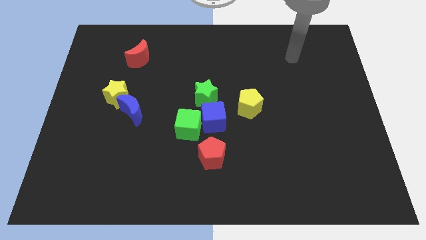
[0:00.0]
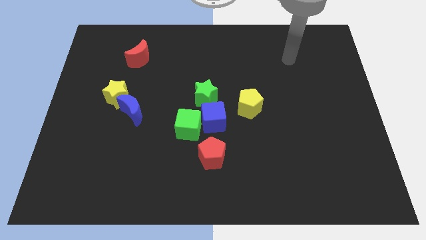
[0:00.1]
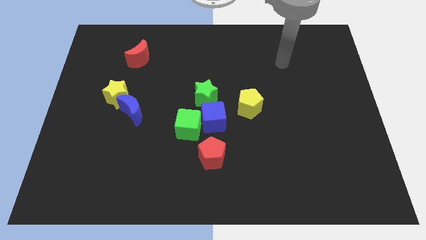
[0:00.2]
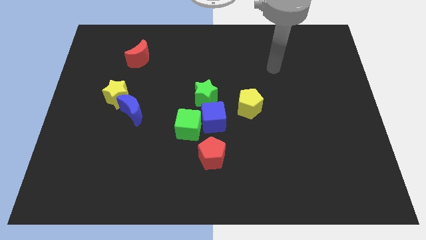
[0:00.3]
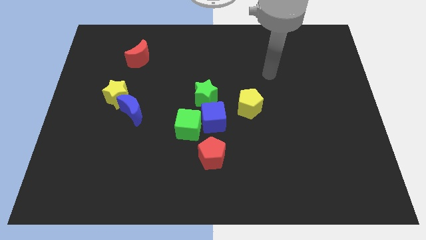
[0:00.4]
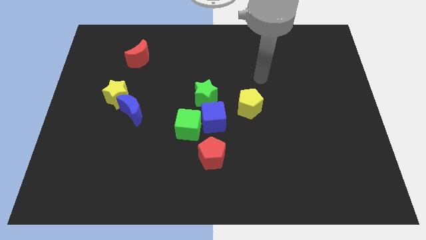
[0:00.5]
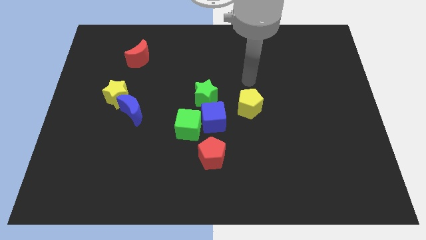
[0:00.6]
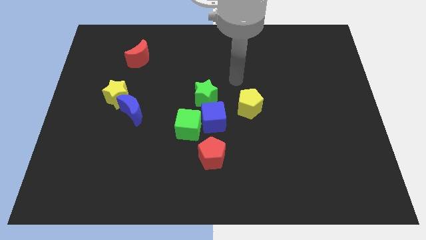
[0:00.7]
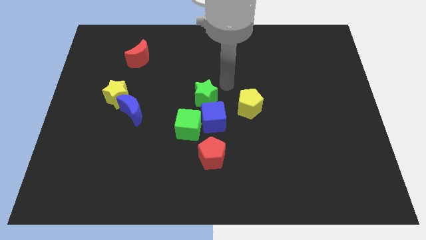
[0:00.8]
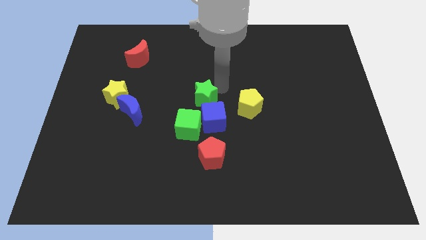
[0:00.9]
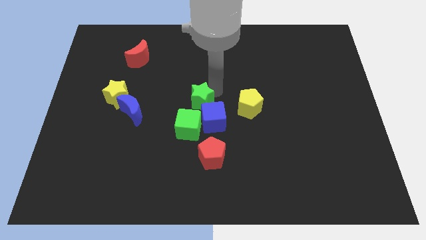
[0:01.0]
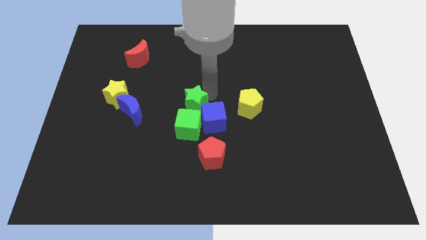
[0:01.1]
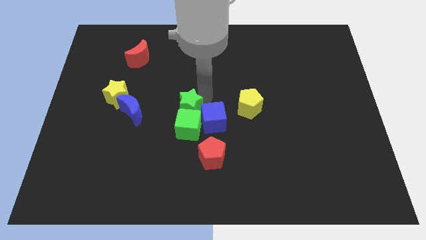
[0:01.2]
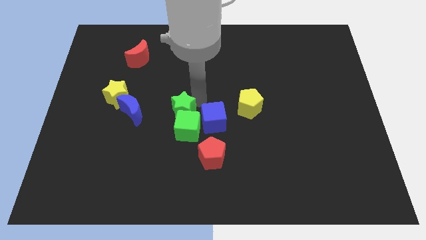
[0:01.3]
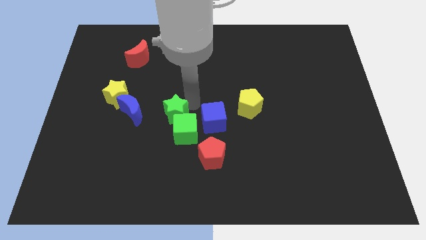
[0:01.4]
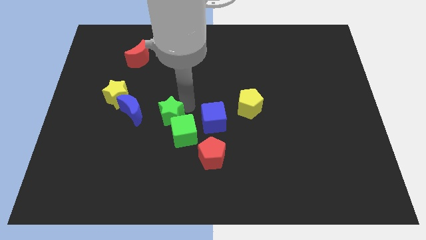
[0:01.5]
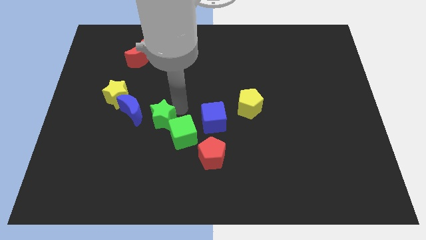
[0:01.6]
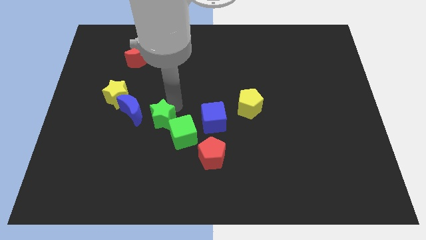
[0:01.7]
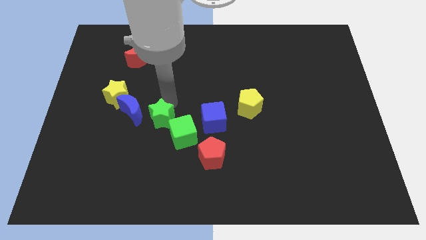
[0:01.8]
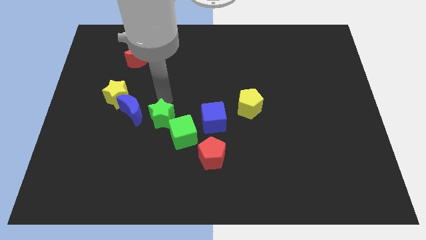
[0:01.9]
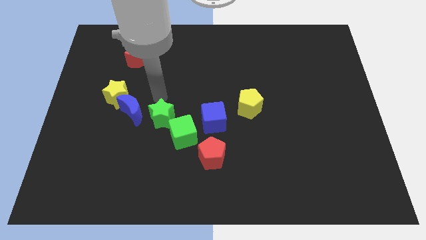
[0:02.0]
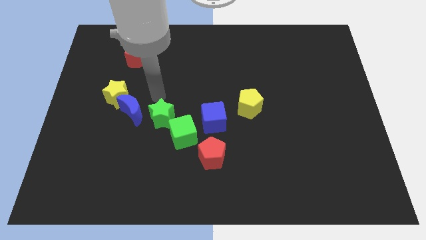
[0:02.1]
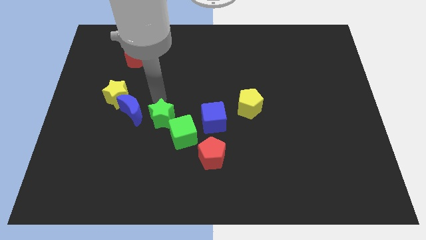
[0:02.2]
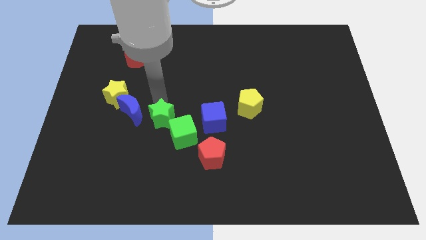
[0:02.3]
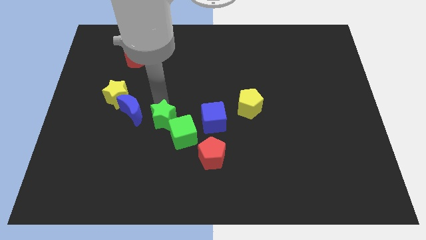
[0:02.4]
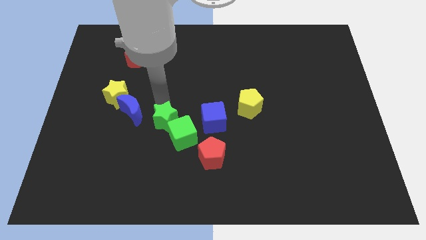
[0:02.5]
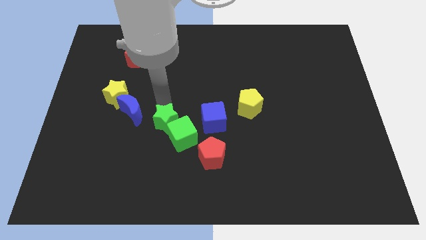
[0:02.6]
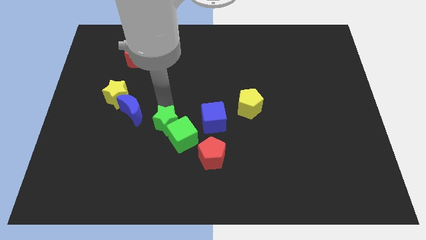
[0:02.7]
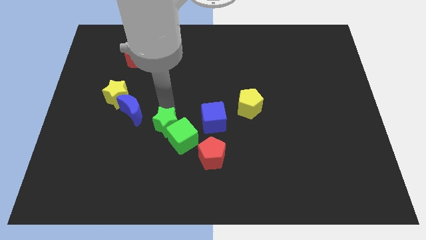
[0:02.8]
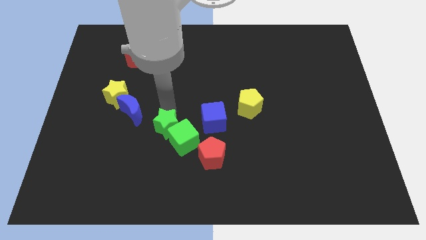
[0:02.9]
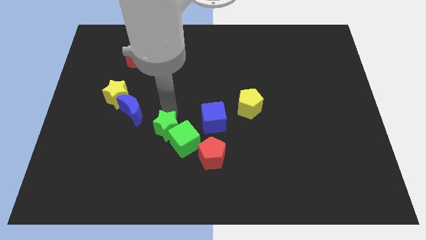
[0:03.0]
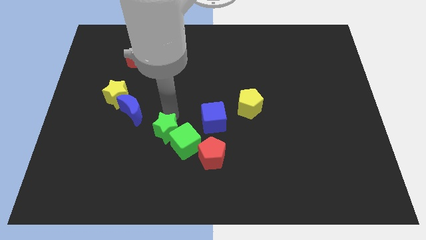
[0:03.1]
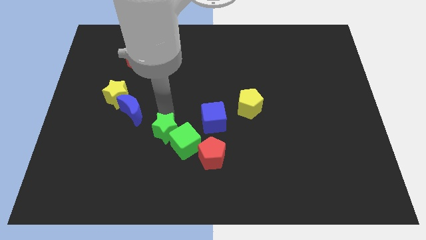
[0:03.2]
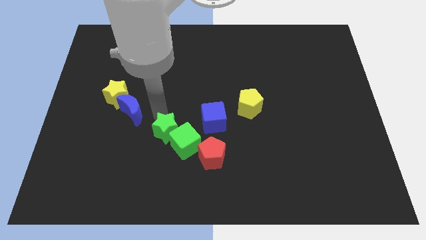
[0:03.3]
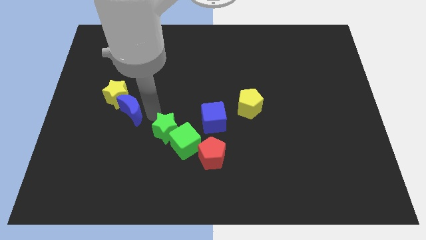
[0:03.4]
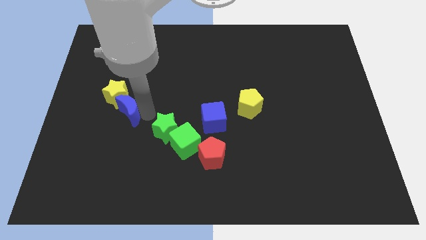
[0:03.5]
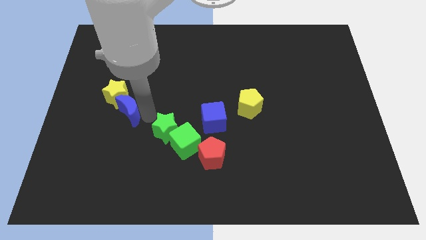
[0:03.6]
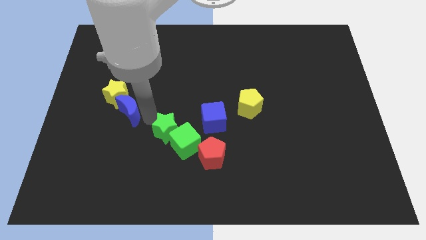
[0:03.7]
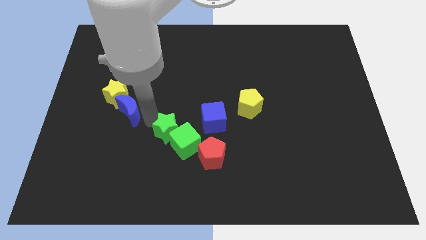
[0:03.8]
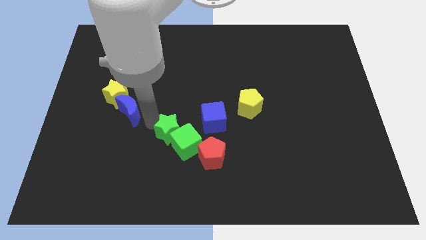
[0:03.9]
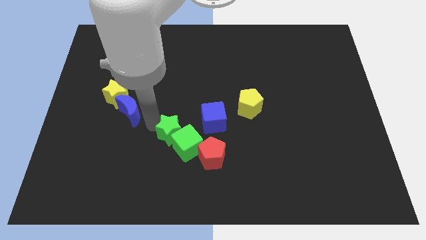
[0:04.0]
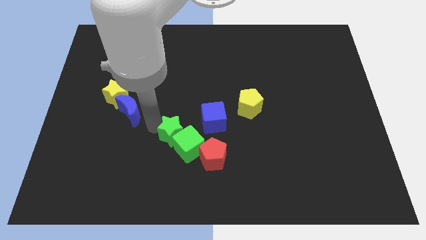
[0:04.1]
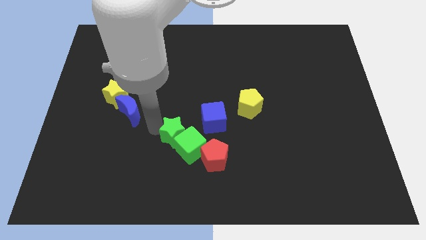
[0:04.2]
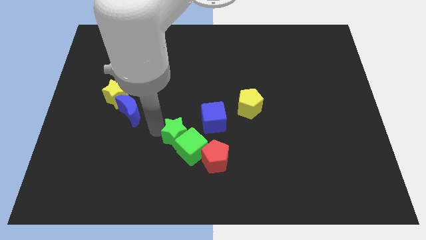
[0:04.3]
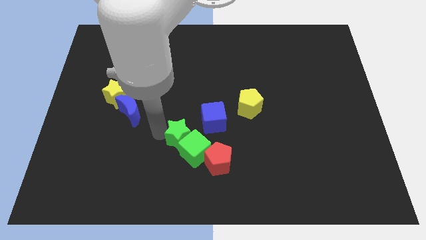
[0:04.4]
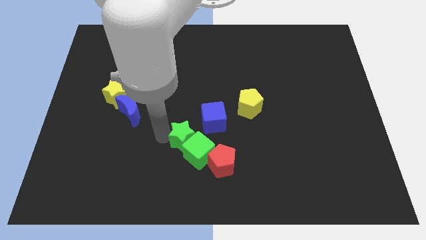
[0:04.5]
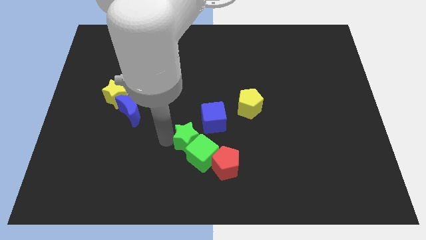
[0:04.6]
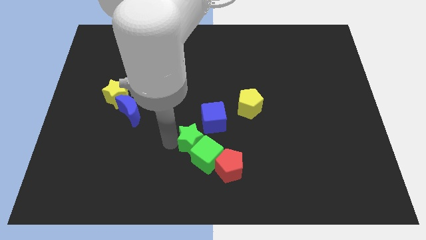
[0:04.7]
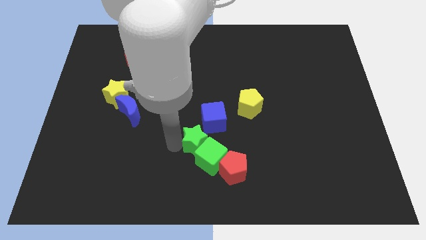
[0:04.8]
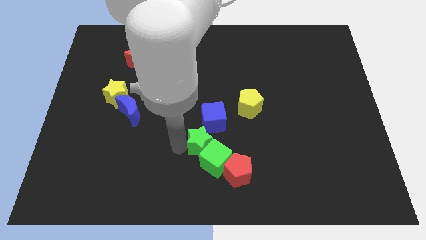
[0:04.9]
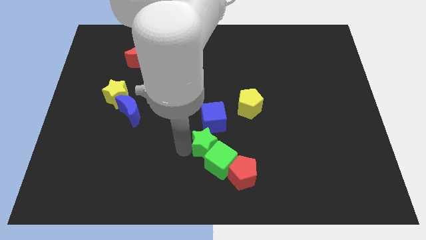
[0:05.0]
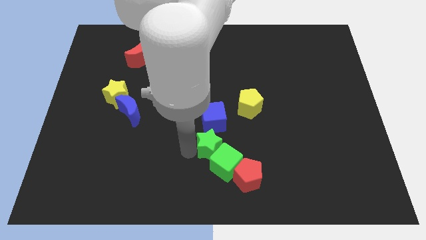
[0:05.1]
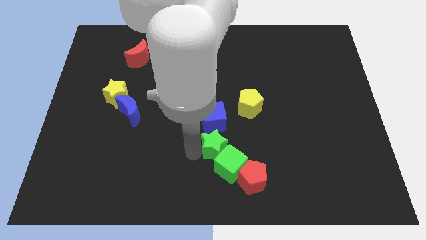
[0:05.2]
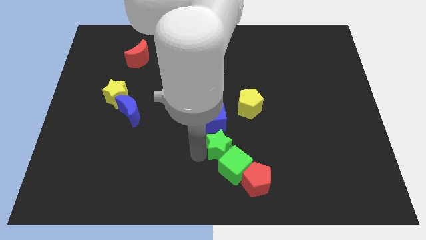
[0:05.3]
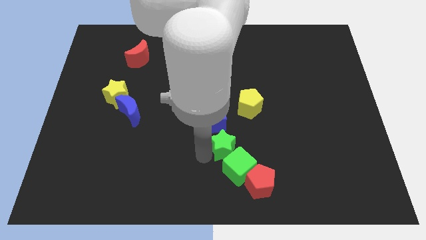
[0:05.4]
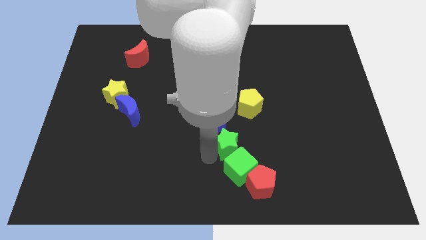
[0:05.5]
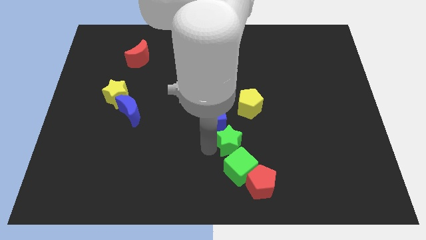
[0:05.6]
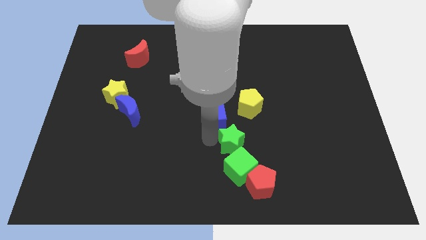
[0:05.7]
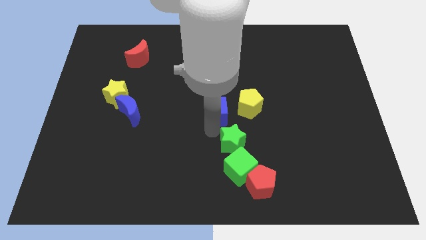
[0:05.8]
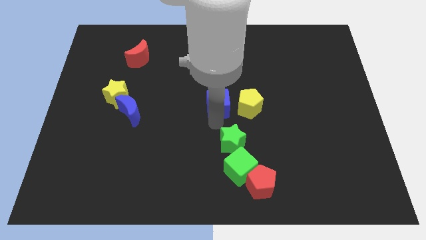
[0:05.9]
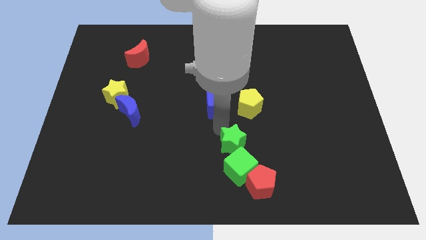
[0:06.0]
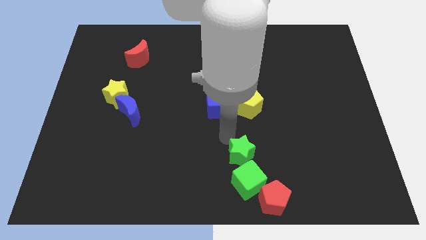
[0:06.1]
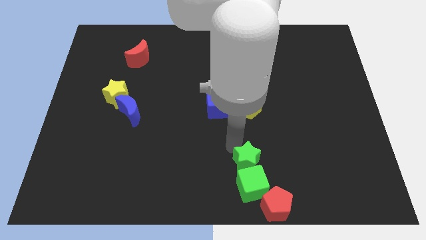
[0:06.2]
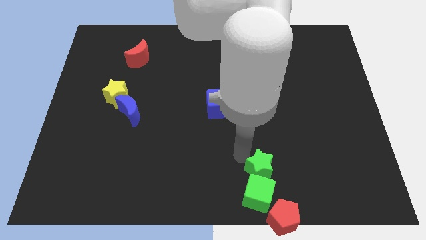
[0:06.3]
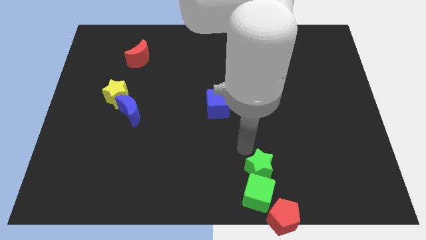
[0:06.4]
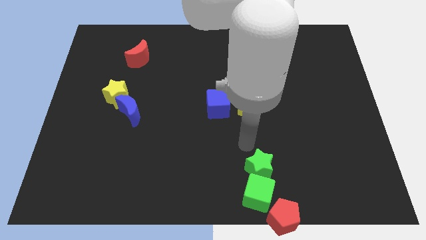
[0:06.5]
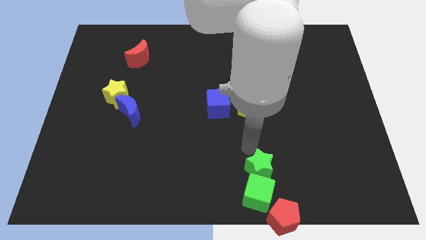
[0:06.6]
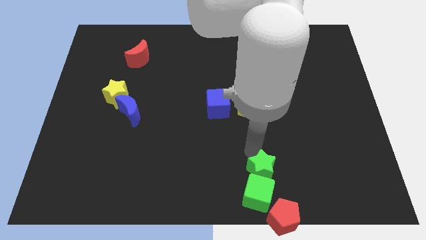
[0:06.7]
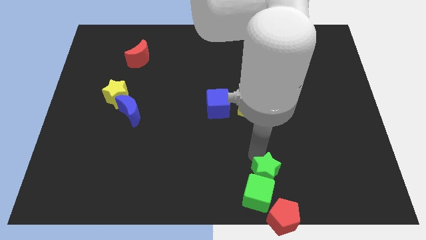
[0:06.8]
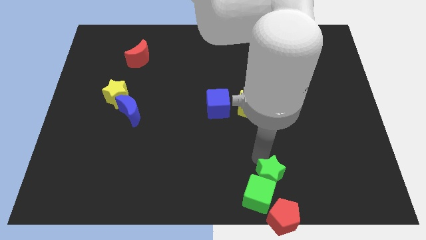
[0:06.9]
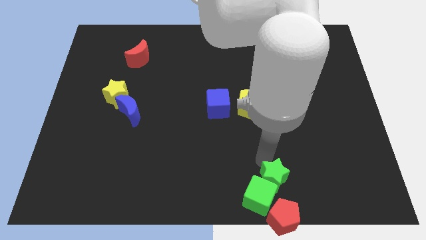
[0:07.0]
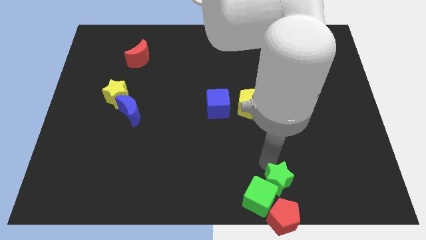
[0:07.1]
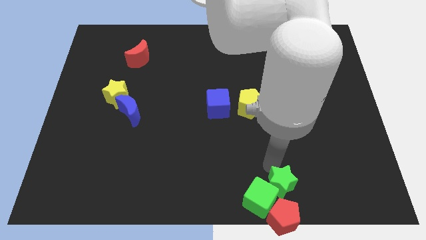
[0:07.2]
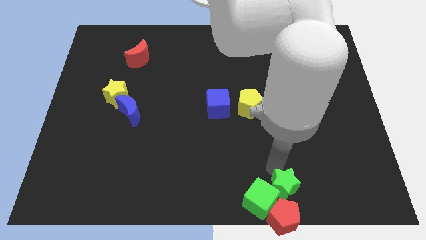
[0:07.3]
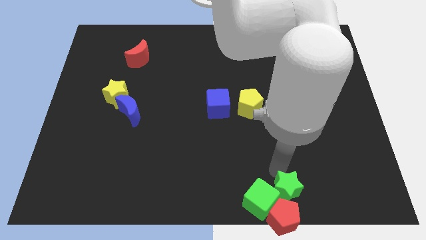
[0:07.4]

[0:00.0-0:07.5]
move the green star towards the red pentagon

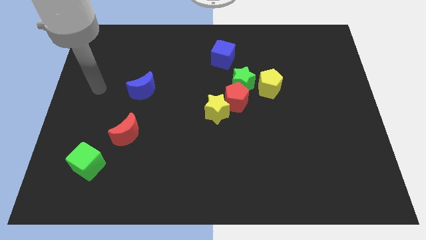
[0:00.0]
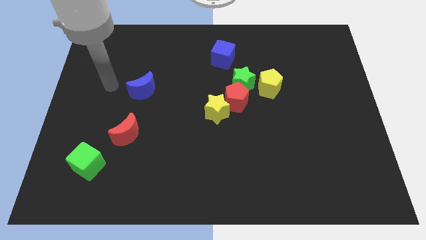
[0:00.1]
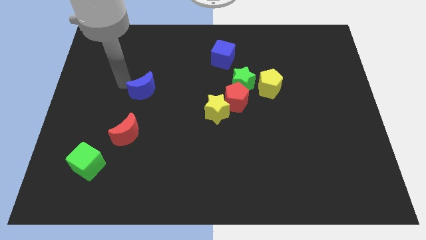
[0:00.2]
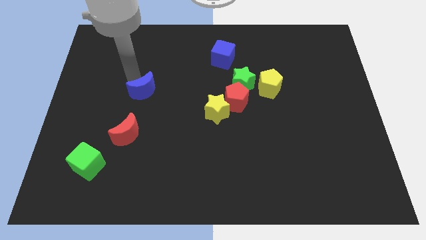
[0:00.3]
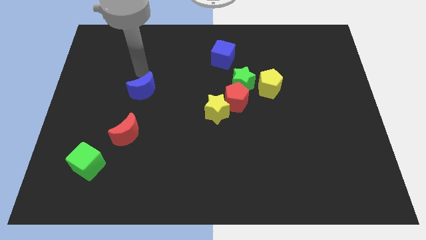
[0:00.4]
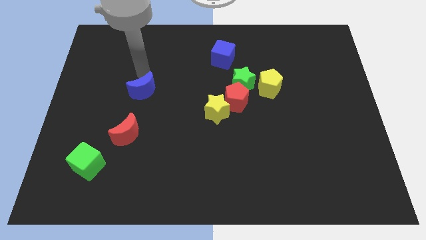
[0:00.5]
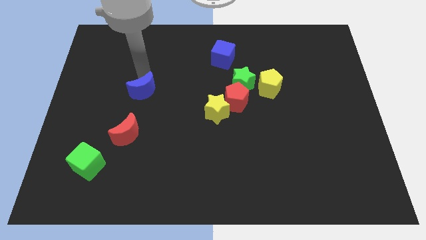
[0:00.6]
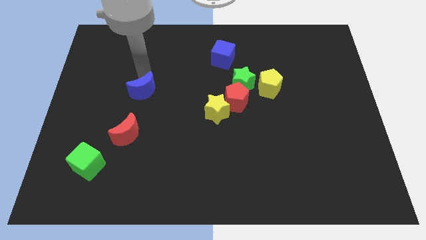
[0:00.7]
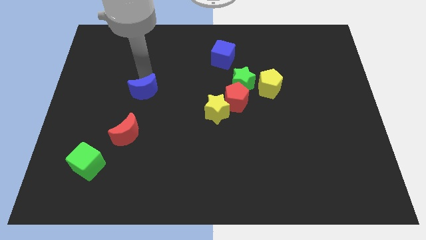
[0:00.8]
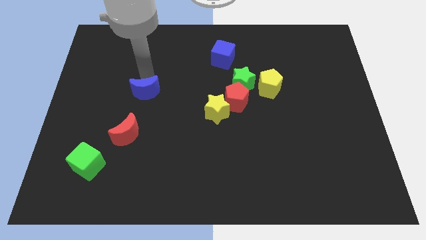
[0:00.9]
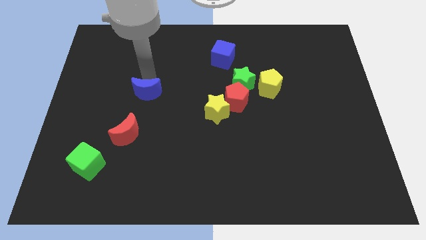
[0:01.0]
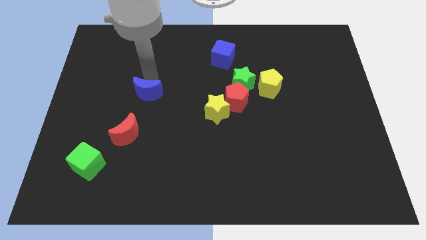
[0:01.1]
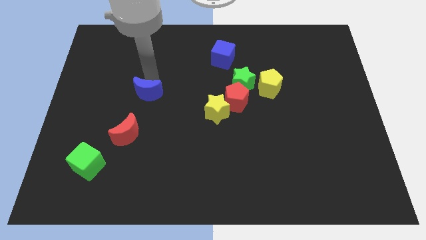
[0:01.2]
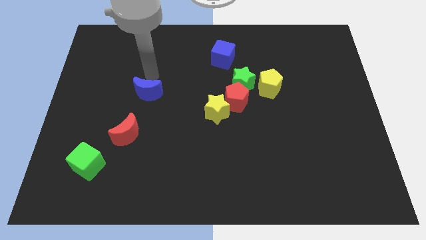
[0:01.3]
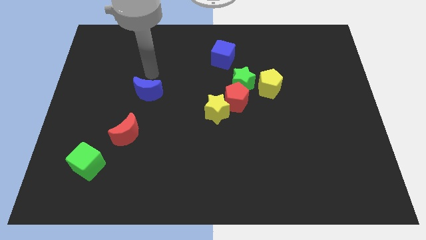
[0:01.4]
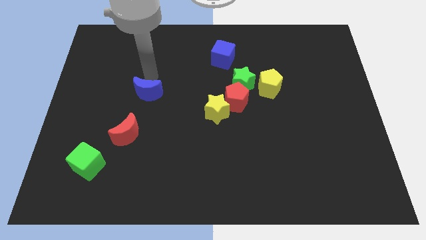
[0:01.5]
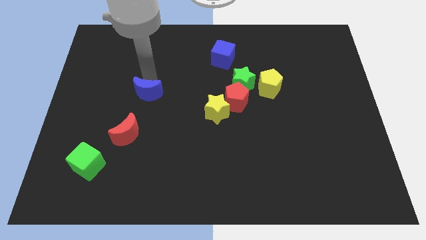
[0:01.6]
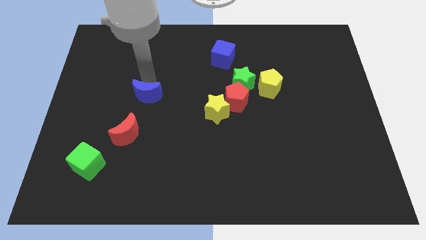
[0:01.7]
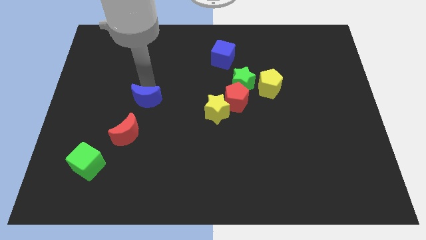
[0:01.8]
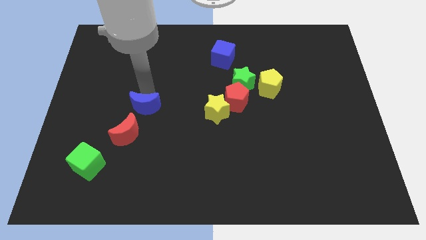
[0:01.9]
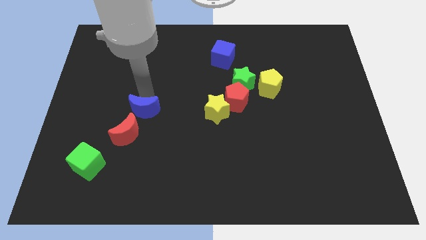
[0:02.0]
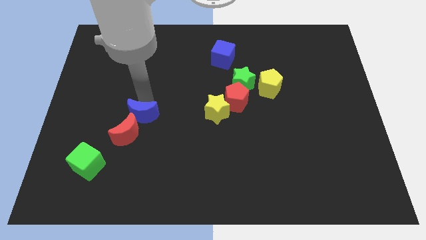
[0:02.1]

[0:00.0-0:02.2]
push the blue moon to the red moon
